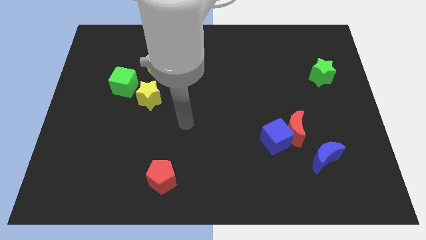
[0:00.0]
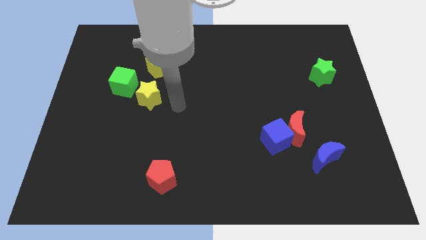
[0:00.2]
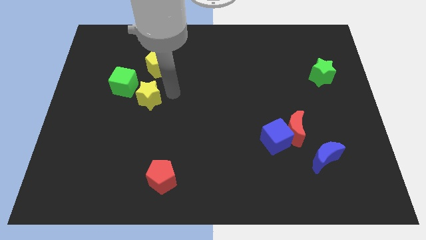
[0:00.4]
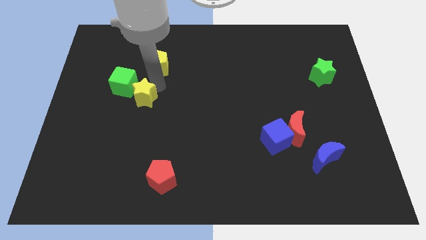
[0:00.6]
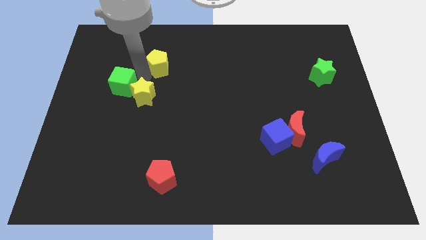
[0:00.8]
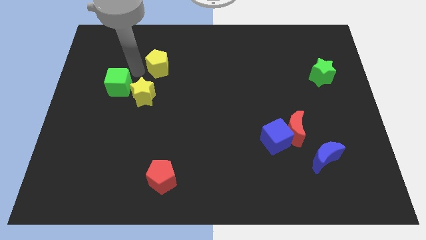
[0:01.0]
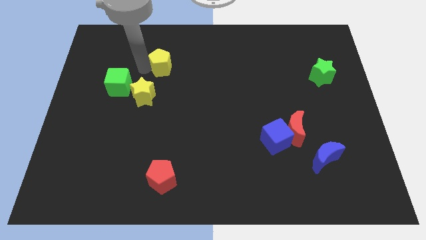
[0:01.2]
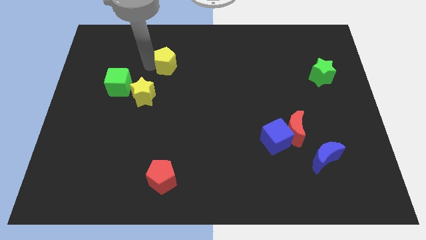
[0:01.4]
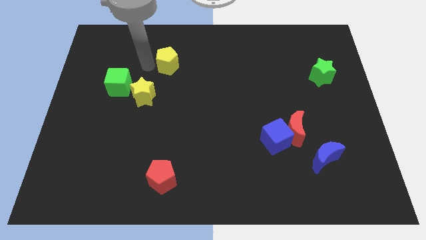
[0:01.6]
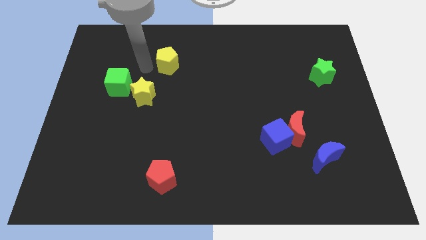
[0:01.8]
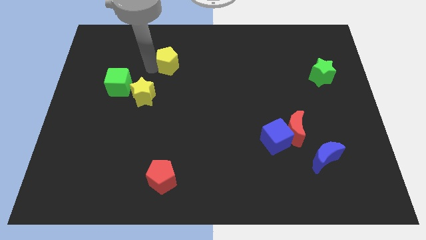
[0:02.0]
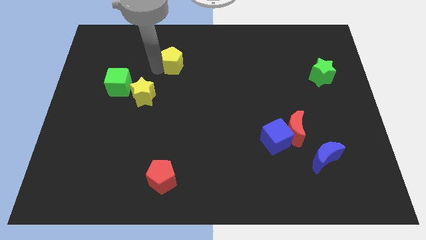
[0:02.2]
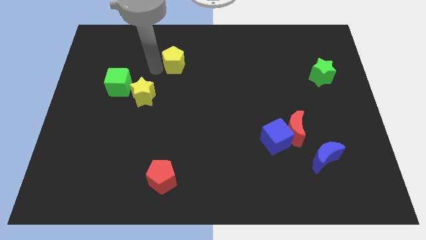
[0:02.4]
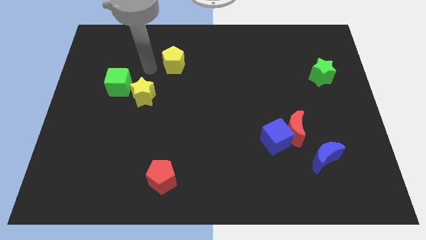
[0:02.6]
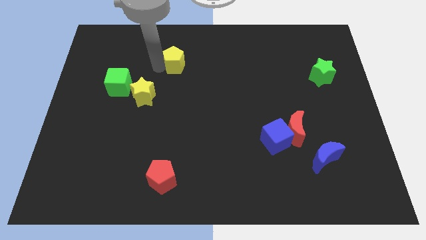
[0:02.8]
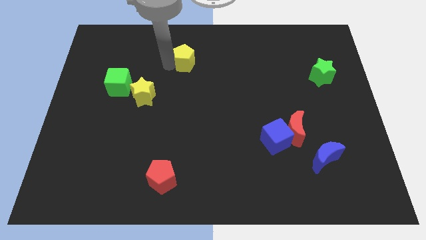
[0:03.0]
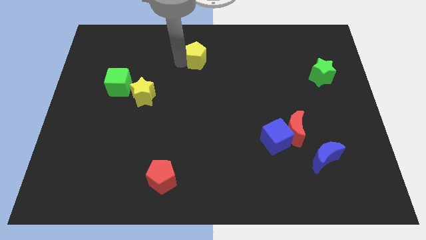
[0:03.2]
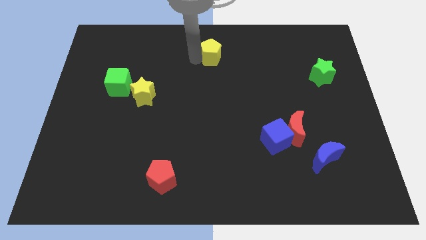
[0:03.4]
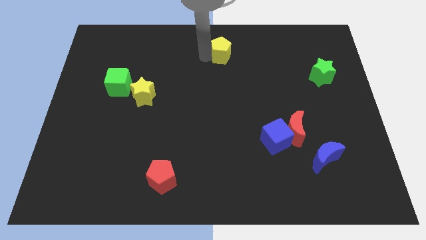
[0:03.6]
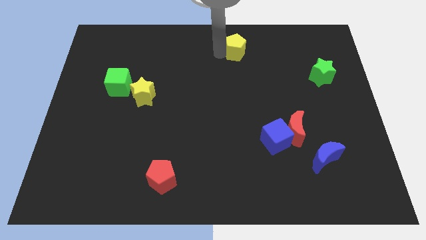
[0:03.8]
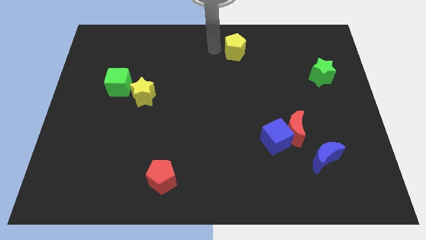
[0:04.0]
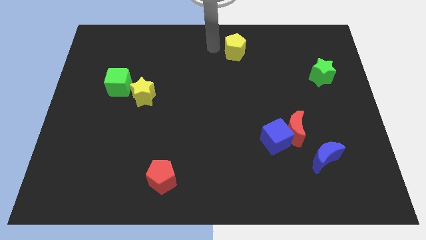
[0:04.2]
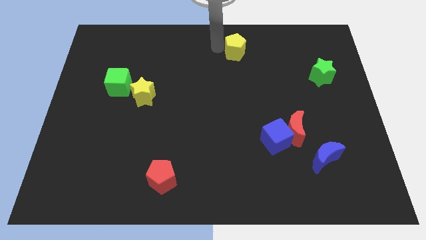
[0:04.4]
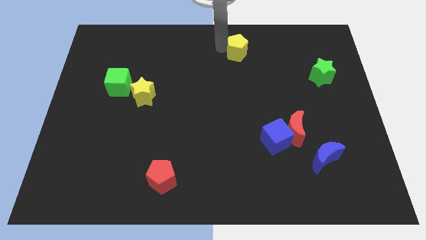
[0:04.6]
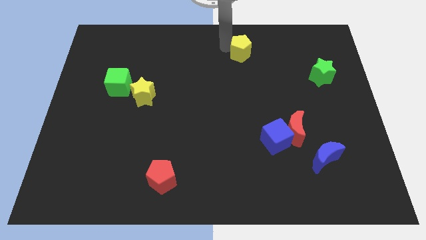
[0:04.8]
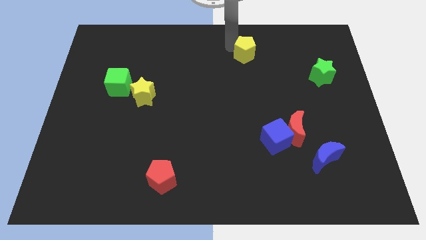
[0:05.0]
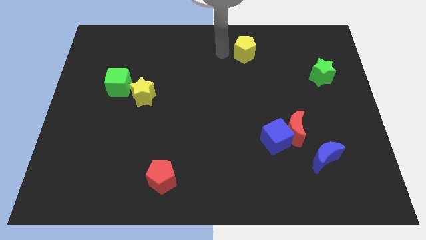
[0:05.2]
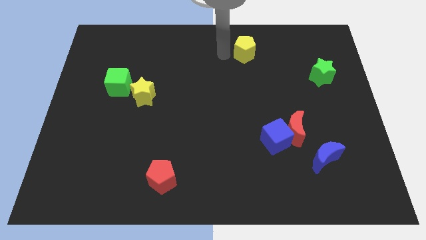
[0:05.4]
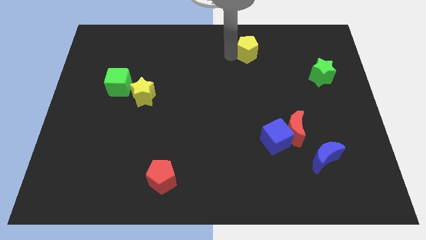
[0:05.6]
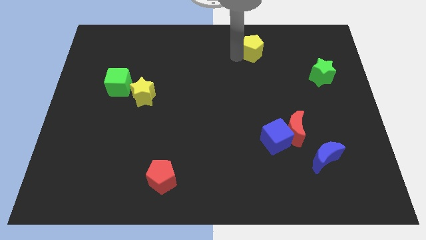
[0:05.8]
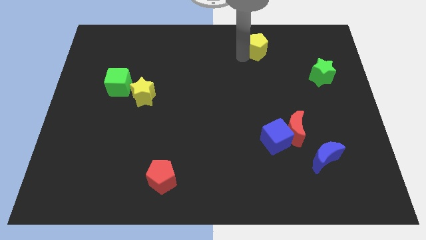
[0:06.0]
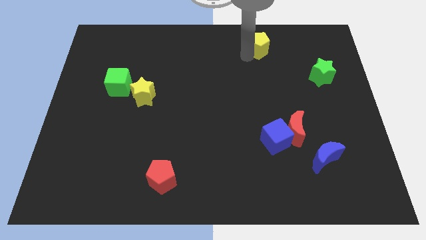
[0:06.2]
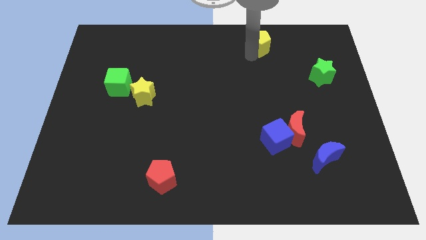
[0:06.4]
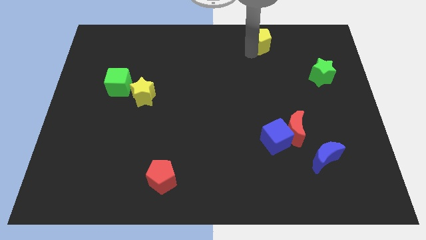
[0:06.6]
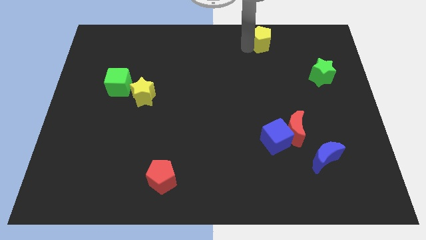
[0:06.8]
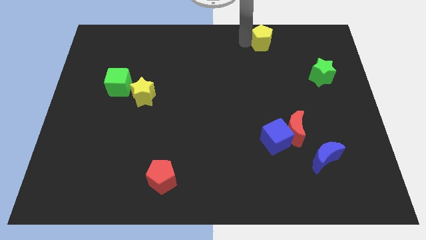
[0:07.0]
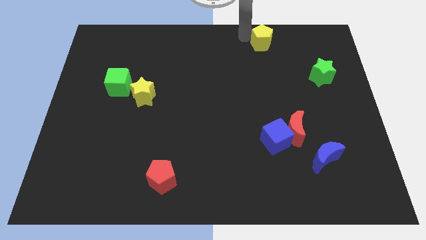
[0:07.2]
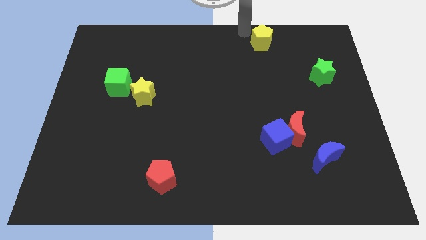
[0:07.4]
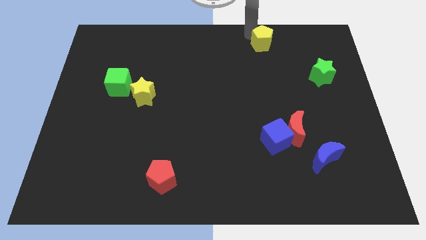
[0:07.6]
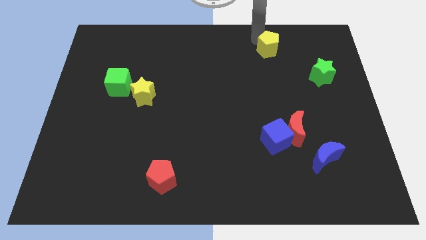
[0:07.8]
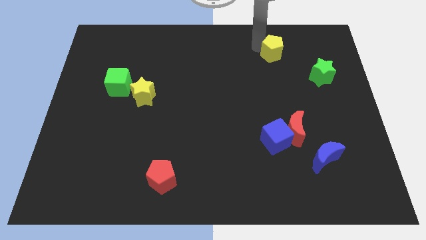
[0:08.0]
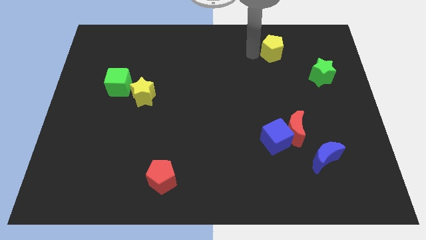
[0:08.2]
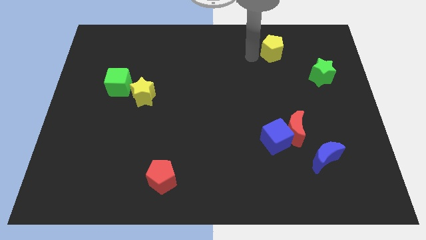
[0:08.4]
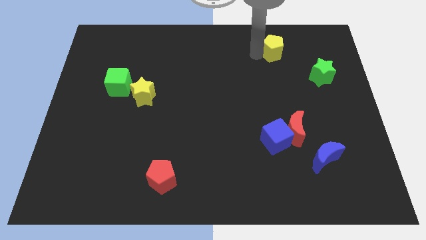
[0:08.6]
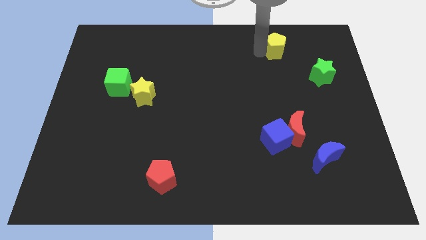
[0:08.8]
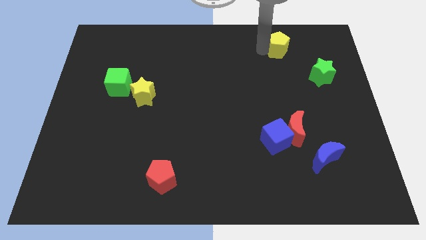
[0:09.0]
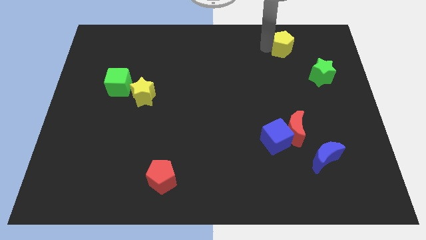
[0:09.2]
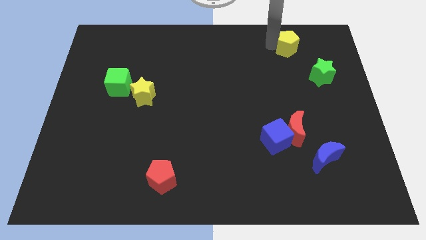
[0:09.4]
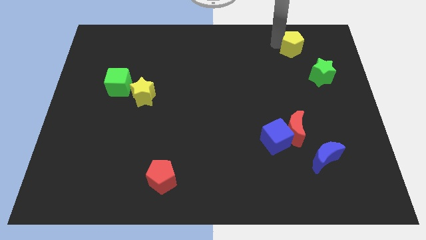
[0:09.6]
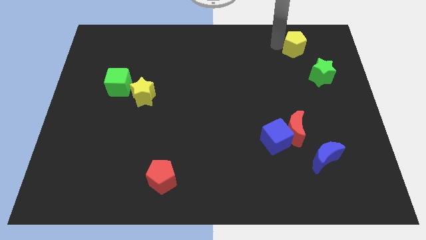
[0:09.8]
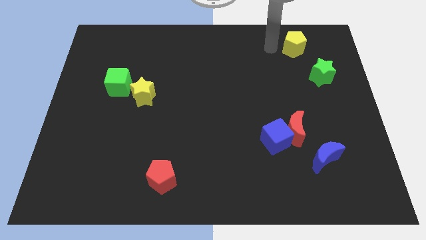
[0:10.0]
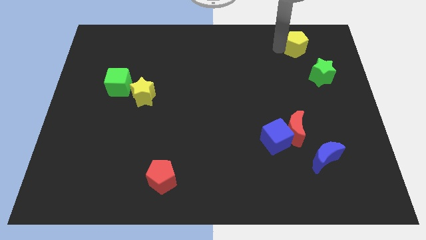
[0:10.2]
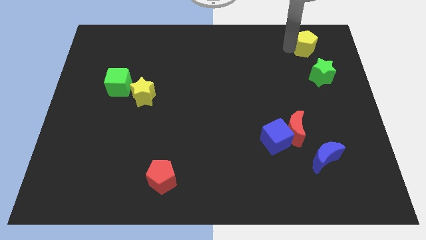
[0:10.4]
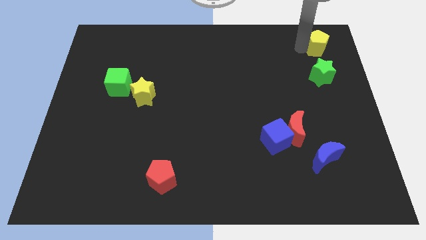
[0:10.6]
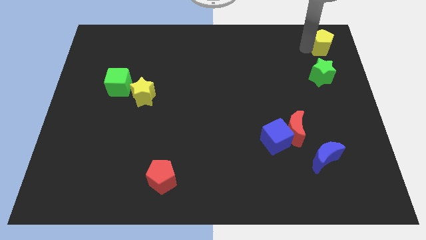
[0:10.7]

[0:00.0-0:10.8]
slide the yellow pentagon to the top right

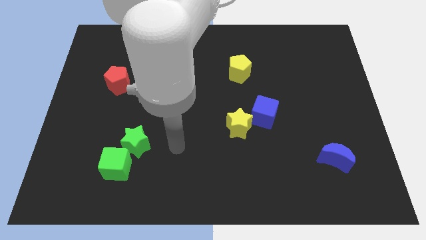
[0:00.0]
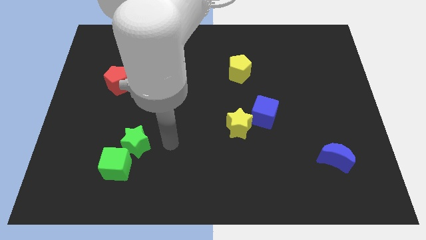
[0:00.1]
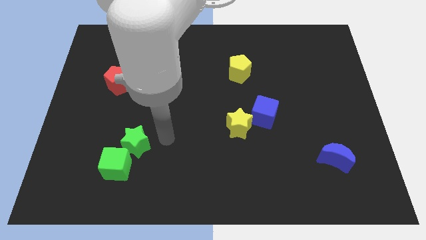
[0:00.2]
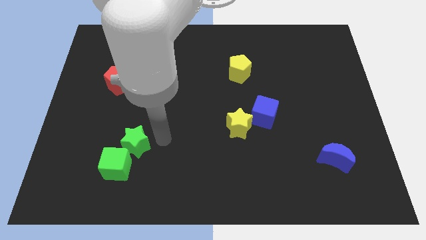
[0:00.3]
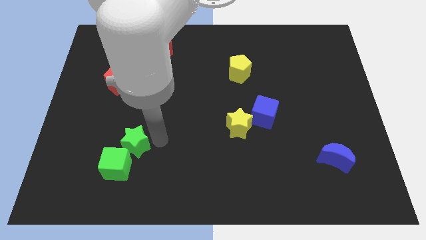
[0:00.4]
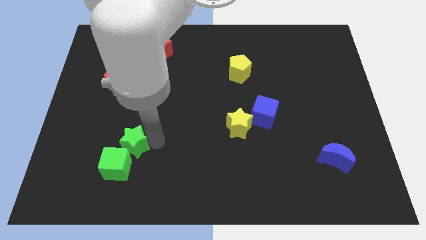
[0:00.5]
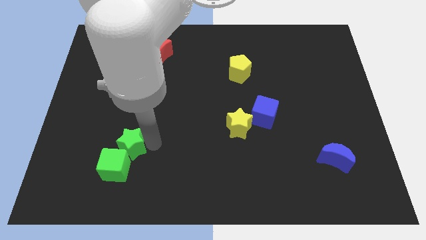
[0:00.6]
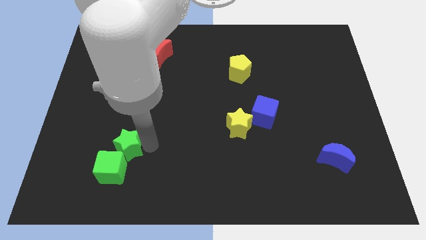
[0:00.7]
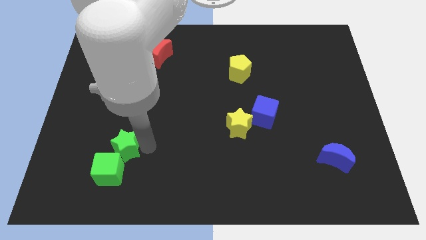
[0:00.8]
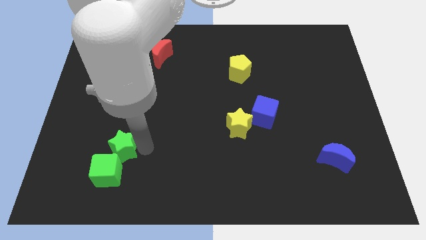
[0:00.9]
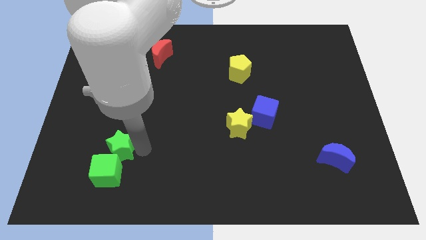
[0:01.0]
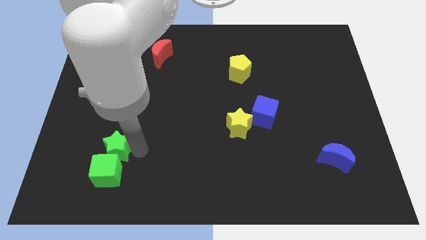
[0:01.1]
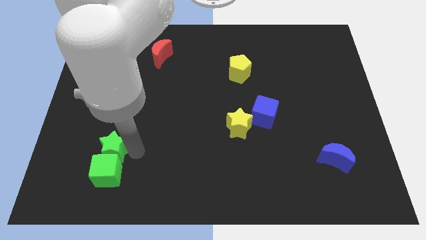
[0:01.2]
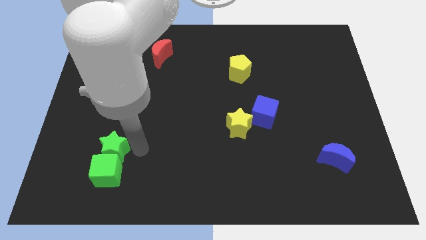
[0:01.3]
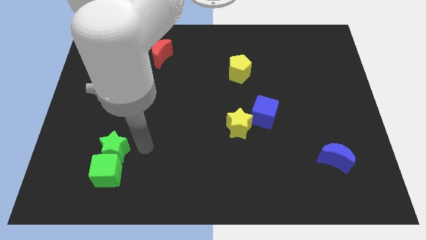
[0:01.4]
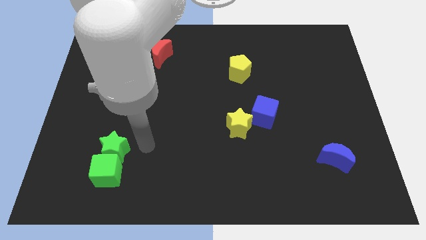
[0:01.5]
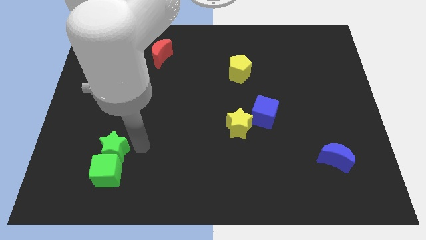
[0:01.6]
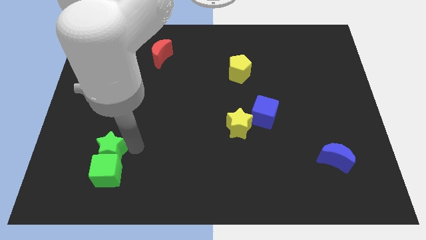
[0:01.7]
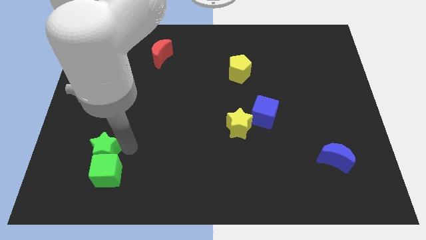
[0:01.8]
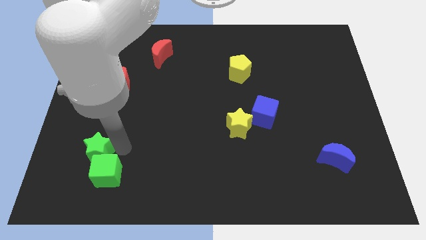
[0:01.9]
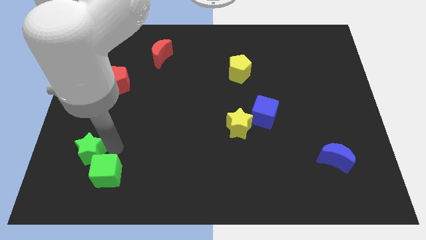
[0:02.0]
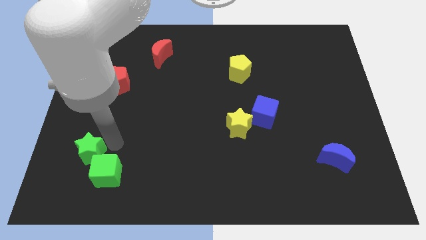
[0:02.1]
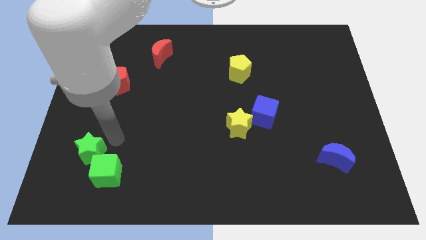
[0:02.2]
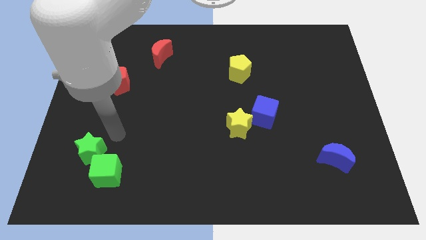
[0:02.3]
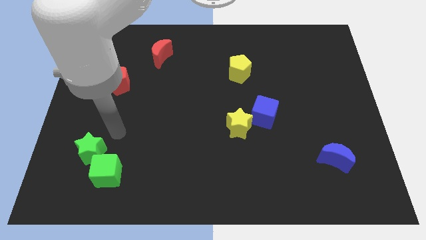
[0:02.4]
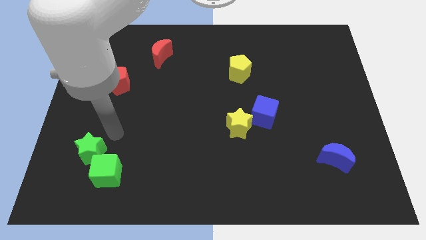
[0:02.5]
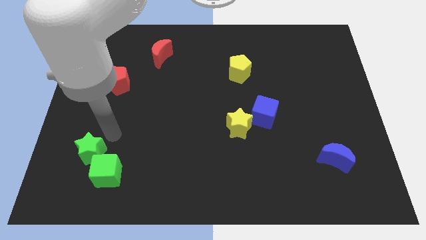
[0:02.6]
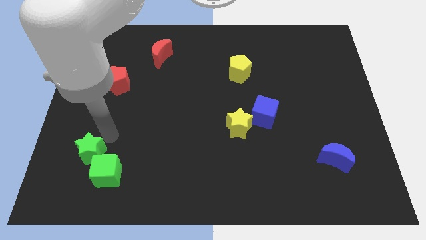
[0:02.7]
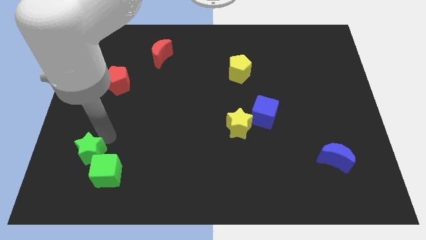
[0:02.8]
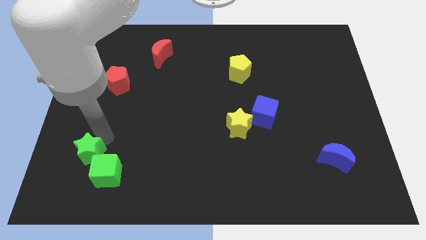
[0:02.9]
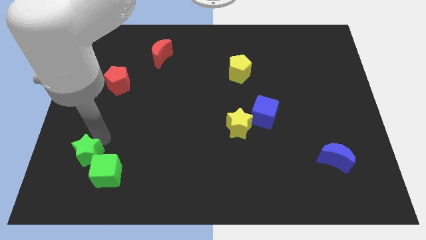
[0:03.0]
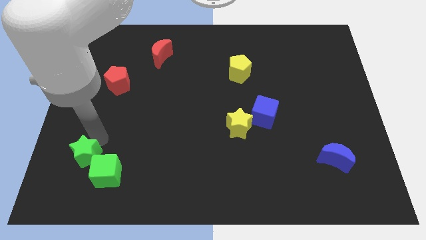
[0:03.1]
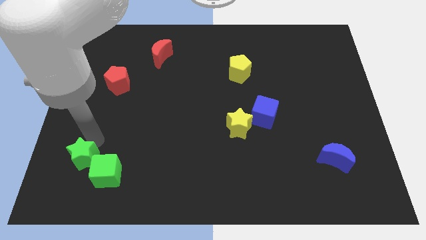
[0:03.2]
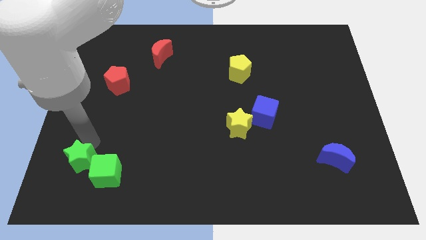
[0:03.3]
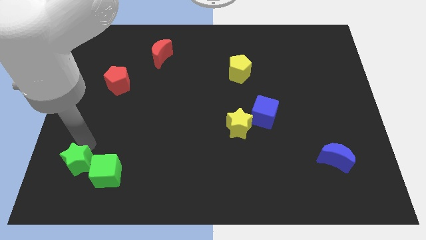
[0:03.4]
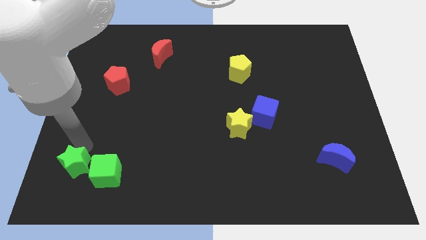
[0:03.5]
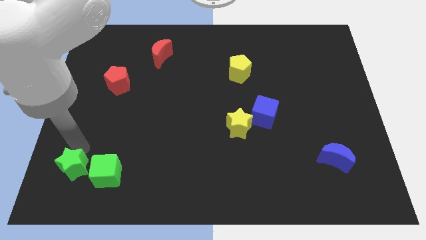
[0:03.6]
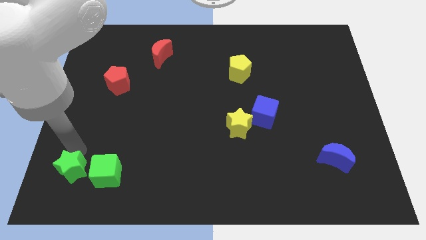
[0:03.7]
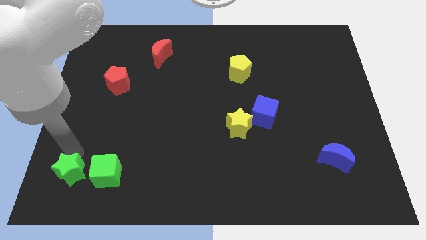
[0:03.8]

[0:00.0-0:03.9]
slide the green star to the lower left corner
